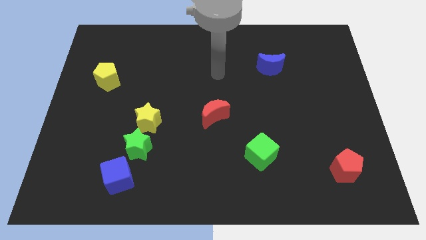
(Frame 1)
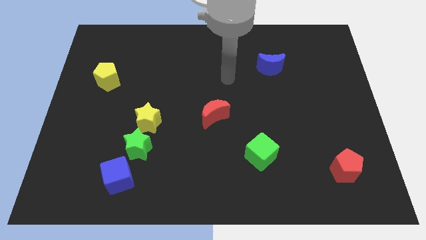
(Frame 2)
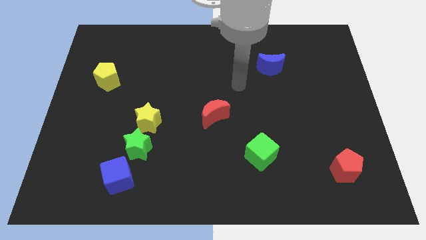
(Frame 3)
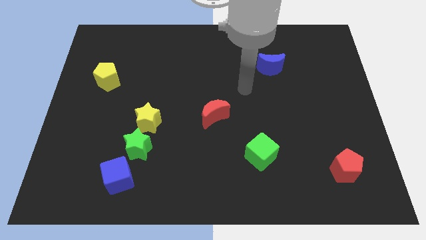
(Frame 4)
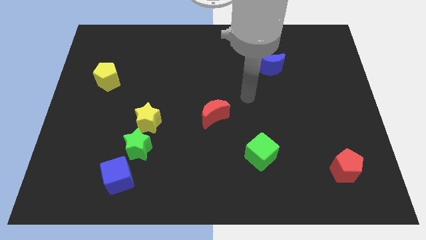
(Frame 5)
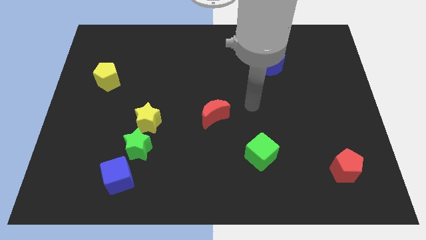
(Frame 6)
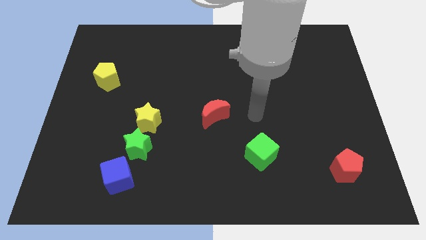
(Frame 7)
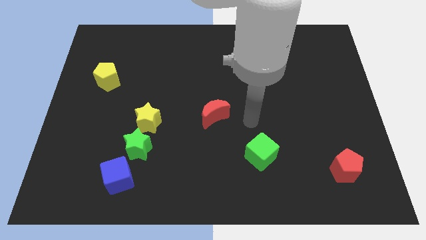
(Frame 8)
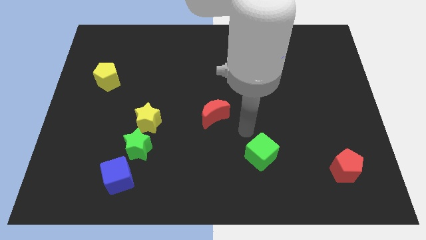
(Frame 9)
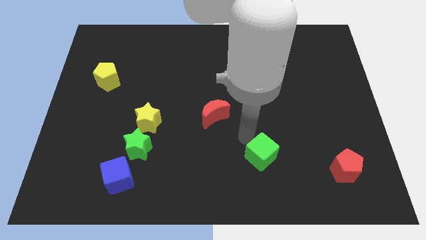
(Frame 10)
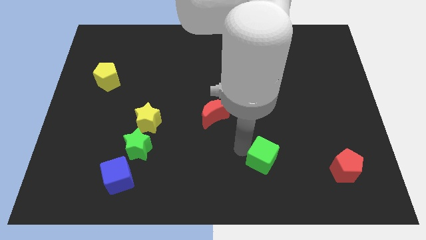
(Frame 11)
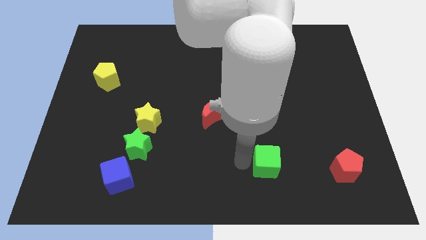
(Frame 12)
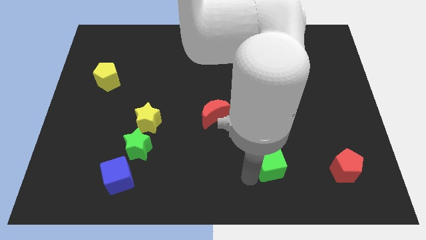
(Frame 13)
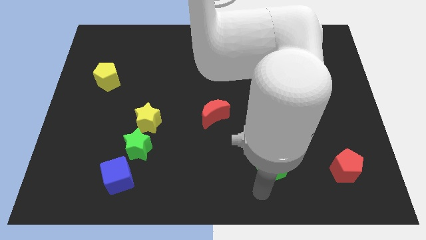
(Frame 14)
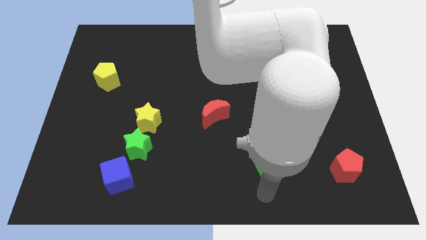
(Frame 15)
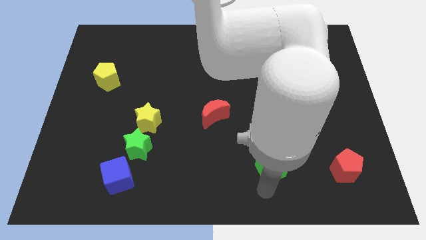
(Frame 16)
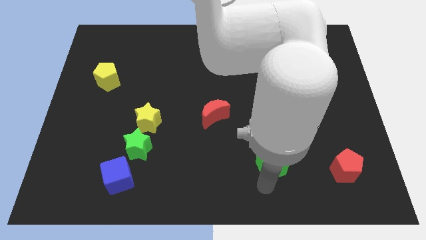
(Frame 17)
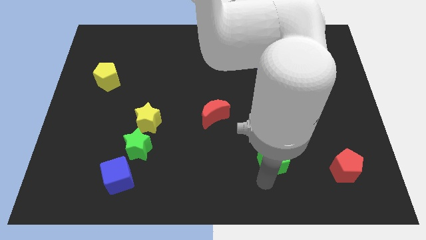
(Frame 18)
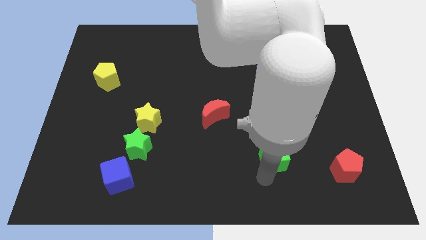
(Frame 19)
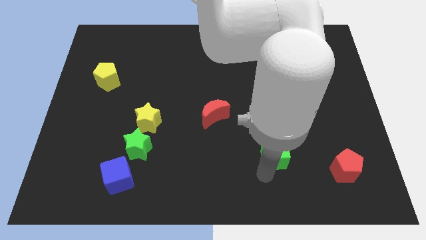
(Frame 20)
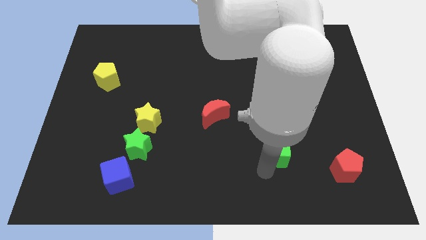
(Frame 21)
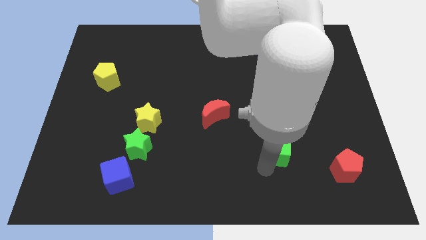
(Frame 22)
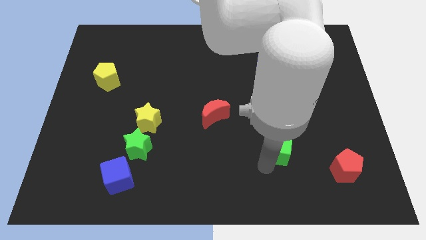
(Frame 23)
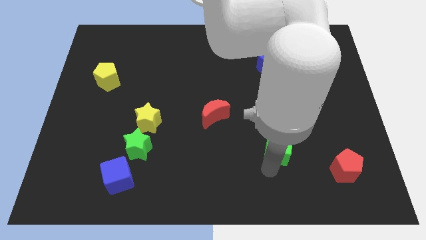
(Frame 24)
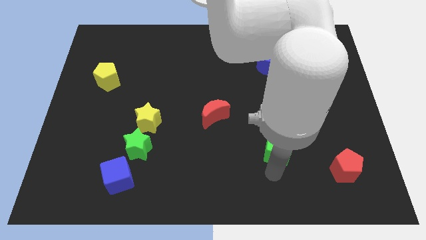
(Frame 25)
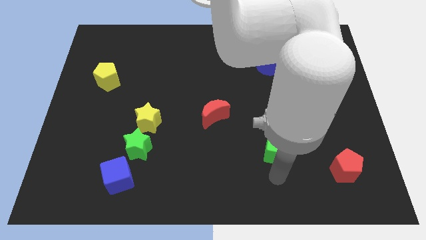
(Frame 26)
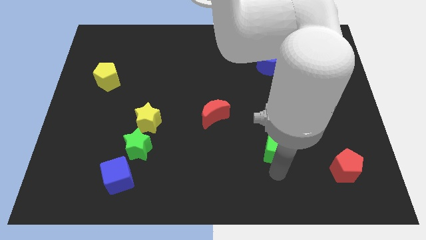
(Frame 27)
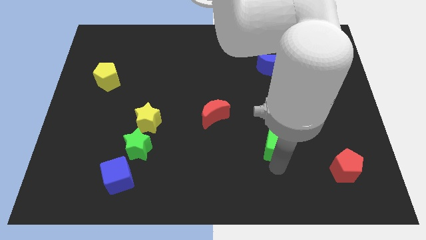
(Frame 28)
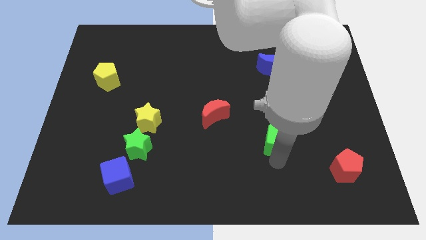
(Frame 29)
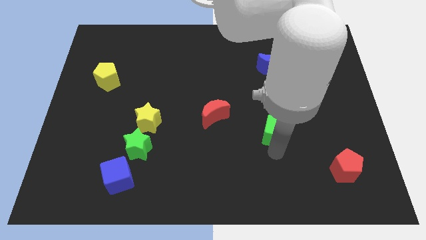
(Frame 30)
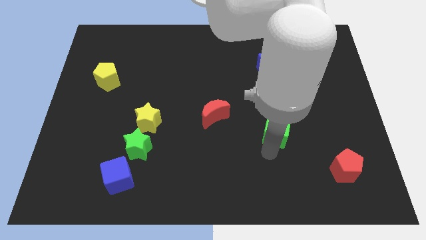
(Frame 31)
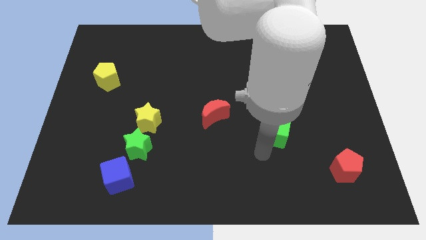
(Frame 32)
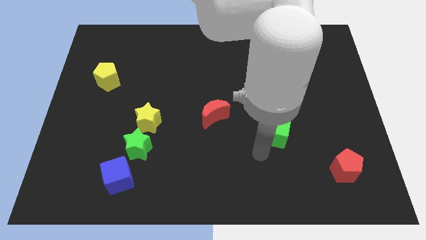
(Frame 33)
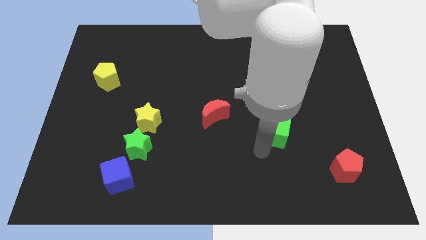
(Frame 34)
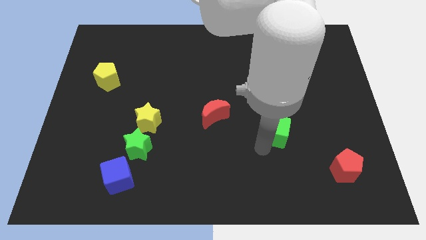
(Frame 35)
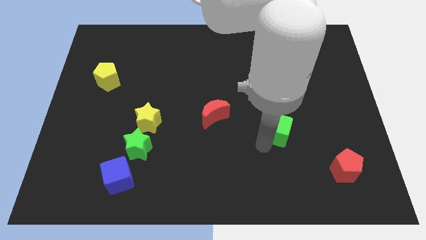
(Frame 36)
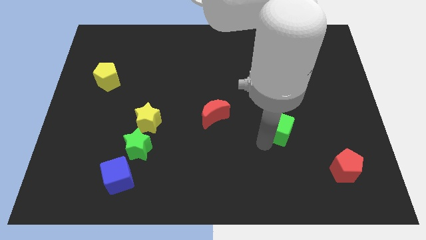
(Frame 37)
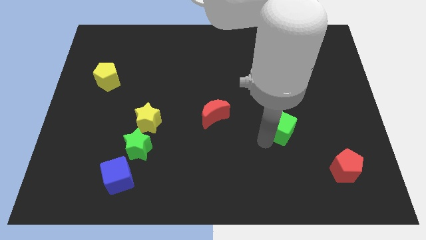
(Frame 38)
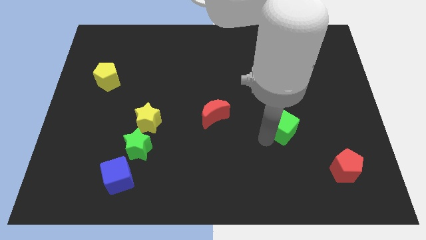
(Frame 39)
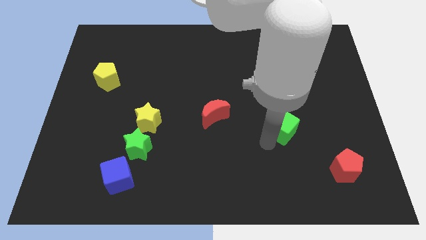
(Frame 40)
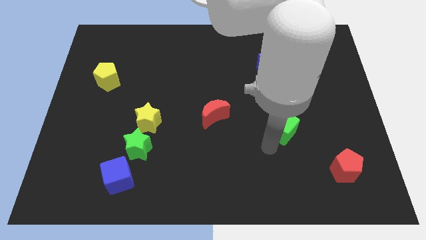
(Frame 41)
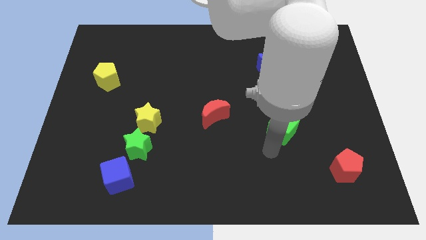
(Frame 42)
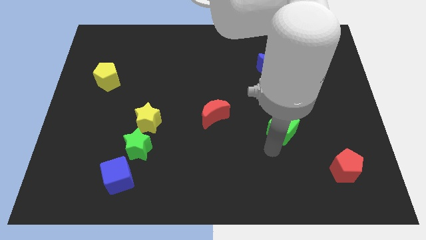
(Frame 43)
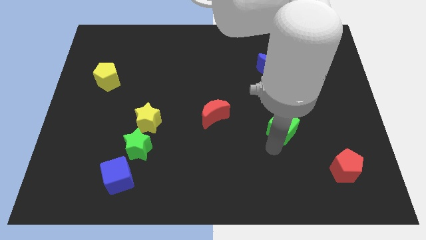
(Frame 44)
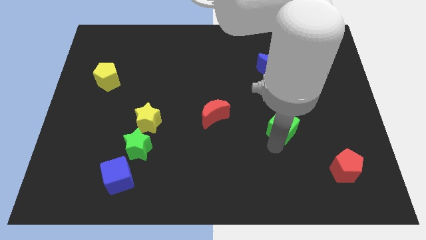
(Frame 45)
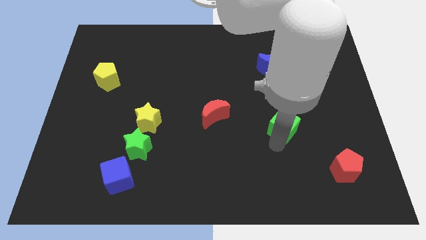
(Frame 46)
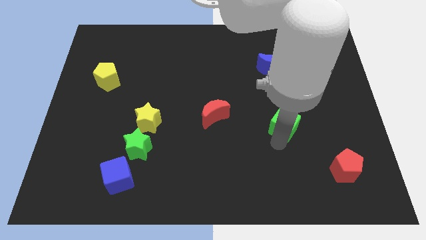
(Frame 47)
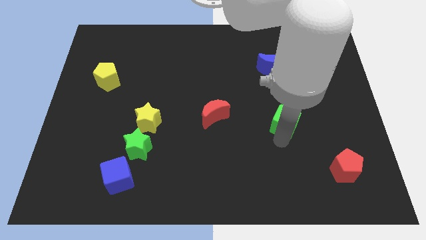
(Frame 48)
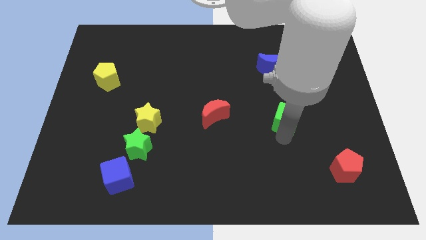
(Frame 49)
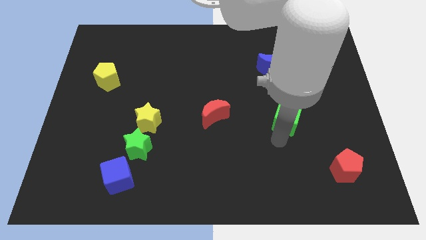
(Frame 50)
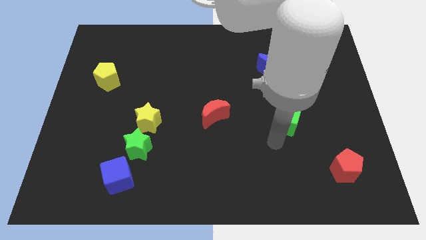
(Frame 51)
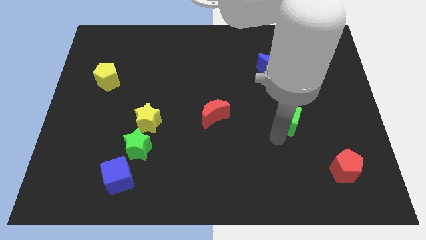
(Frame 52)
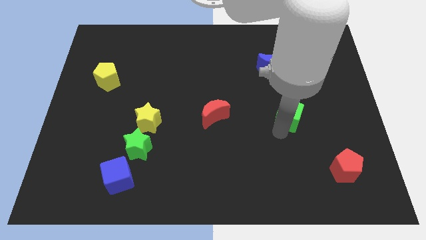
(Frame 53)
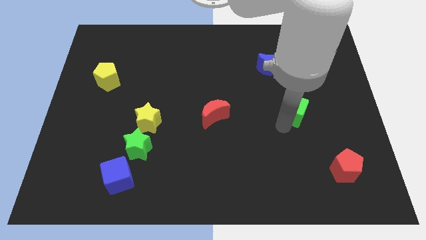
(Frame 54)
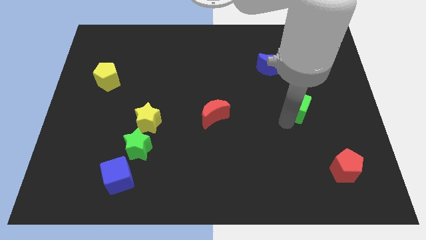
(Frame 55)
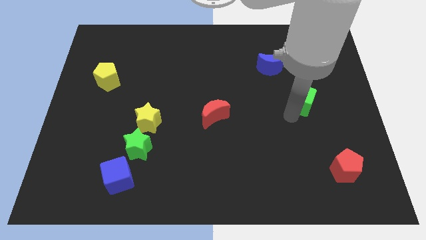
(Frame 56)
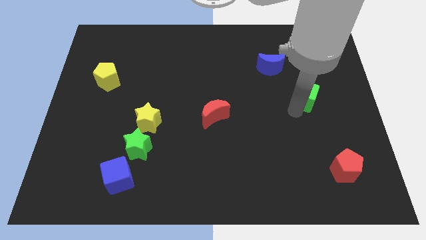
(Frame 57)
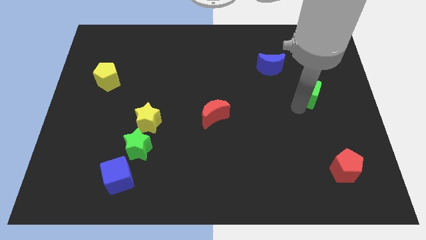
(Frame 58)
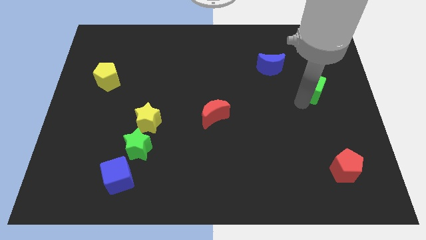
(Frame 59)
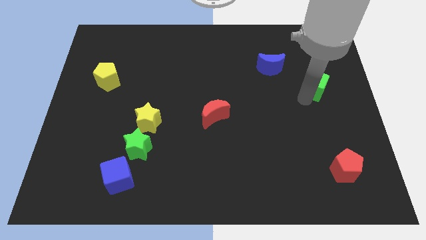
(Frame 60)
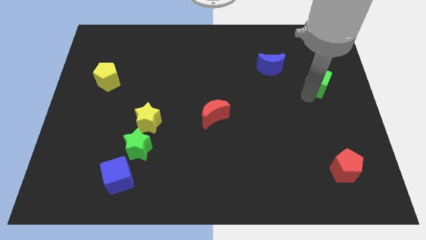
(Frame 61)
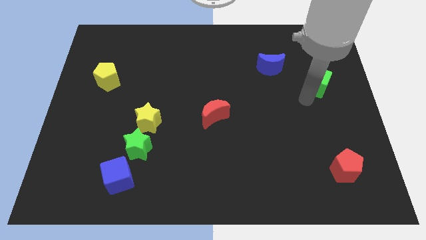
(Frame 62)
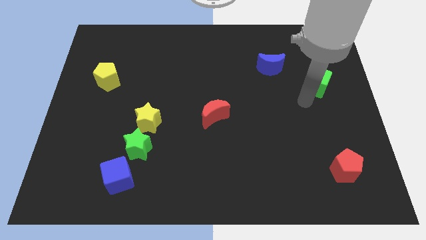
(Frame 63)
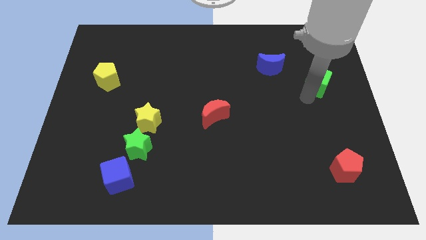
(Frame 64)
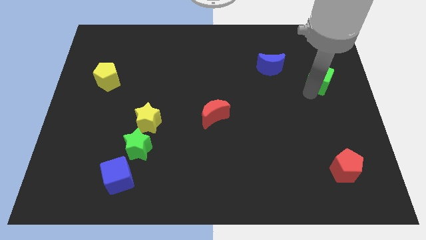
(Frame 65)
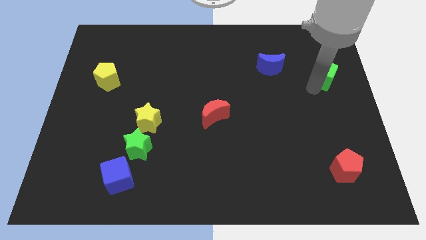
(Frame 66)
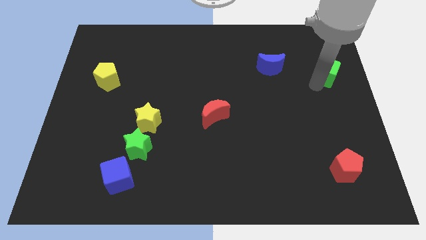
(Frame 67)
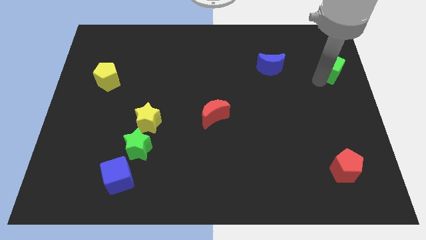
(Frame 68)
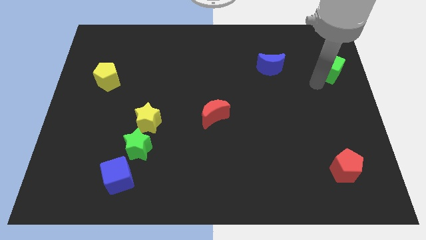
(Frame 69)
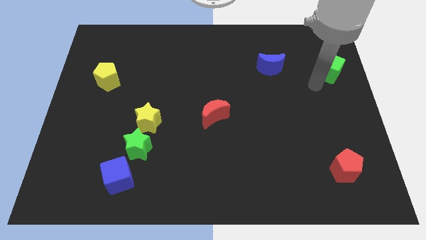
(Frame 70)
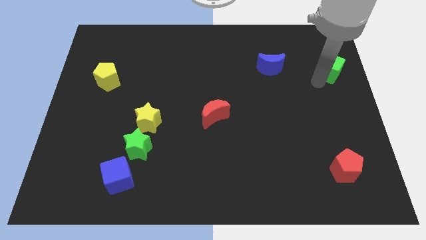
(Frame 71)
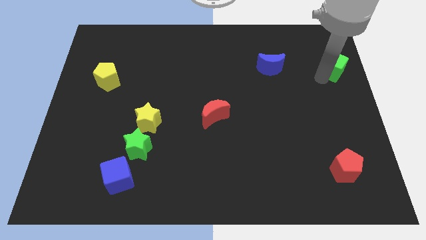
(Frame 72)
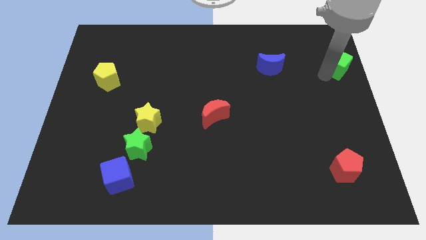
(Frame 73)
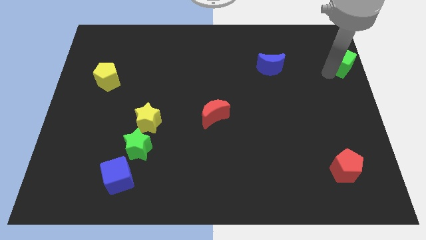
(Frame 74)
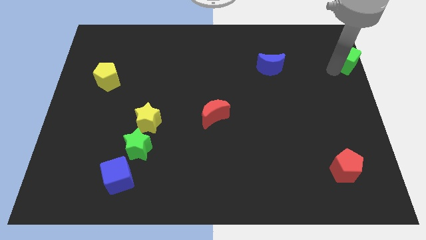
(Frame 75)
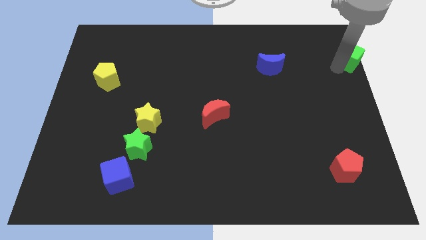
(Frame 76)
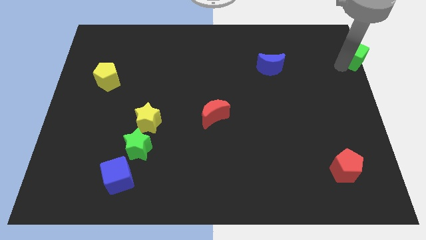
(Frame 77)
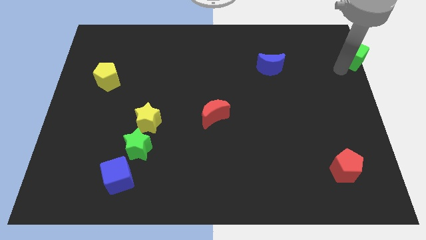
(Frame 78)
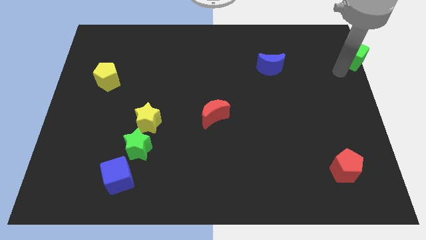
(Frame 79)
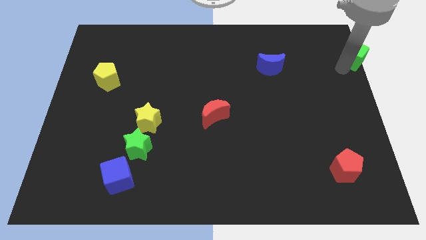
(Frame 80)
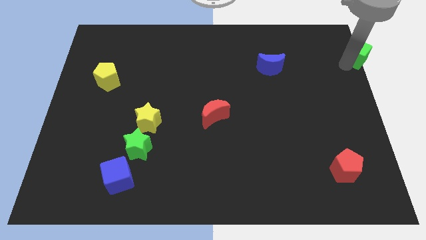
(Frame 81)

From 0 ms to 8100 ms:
move the green cube to the top right of the board
